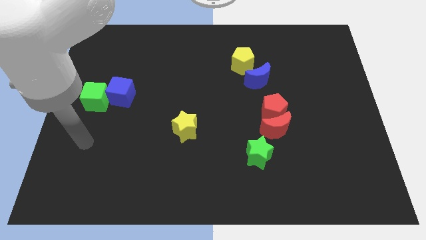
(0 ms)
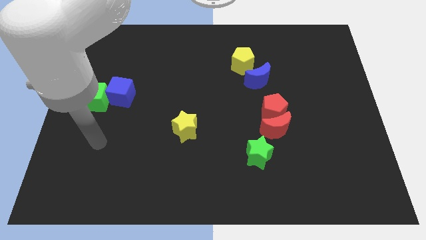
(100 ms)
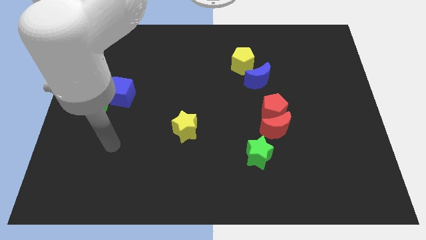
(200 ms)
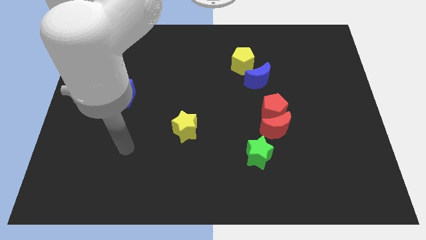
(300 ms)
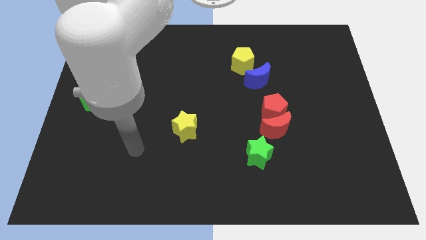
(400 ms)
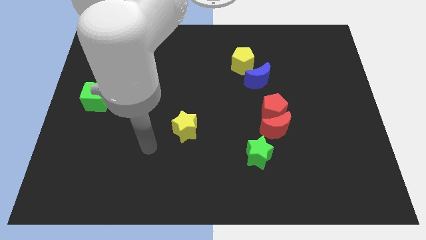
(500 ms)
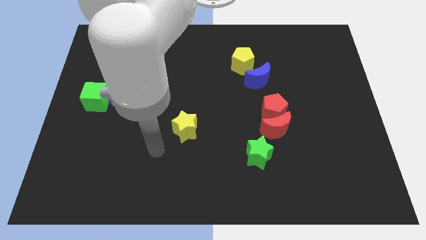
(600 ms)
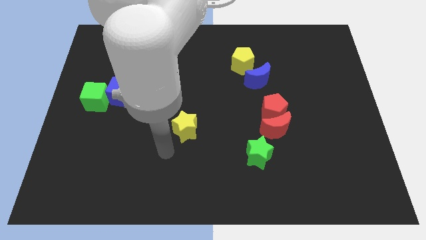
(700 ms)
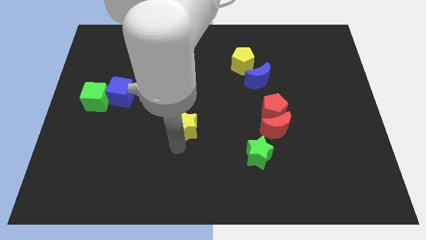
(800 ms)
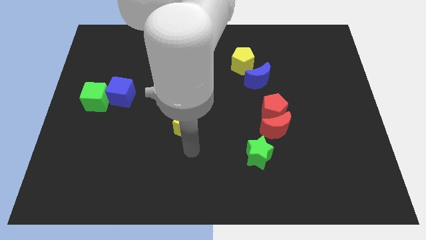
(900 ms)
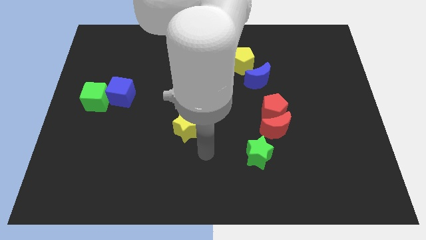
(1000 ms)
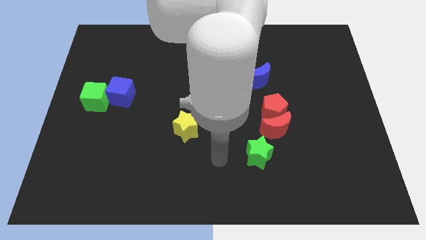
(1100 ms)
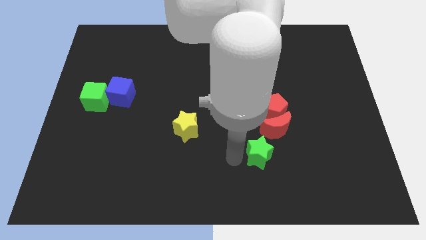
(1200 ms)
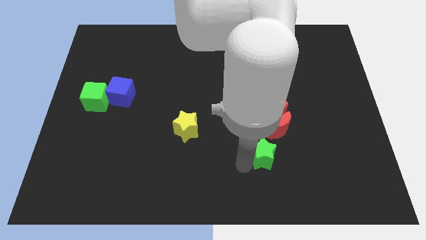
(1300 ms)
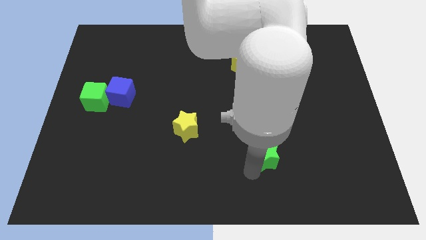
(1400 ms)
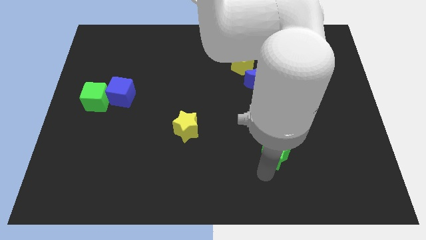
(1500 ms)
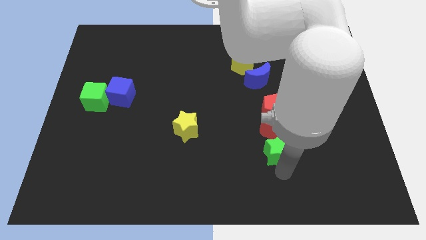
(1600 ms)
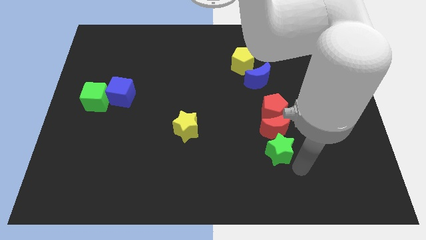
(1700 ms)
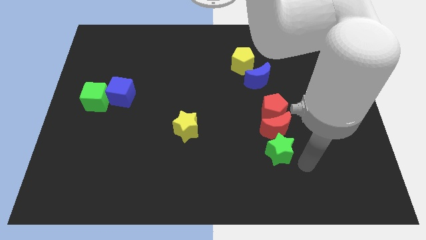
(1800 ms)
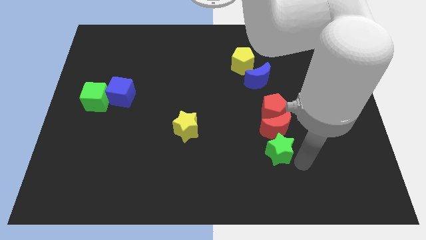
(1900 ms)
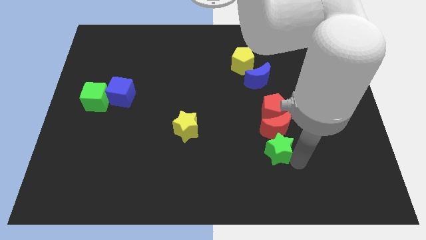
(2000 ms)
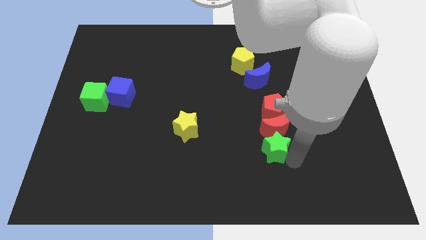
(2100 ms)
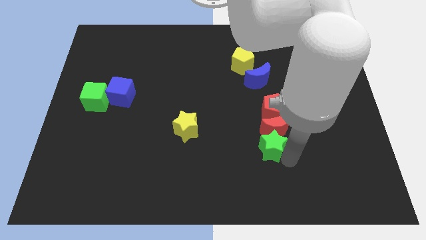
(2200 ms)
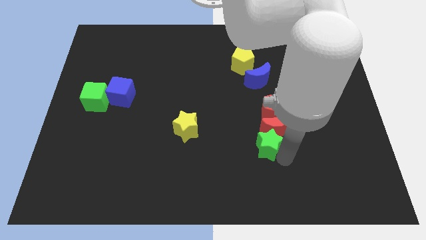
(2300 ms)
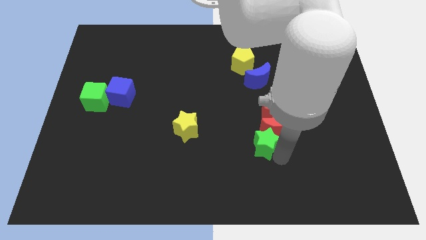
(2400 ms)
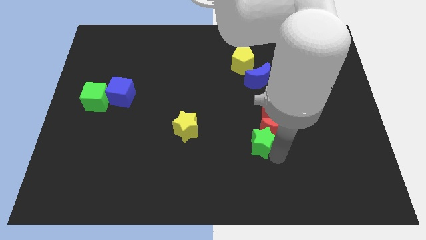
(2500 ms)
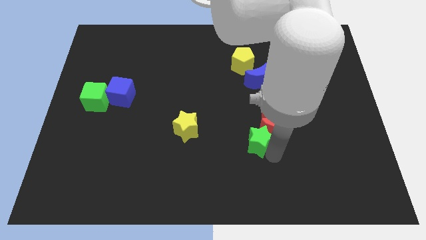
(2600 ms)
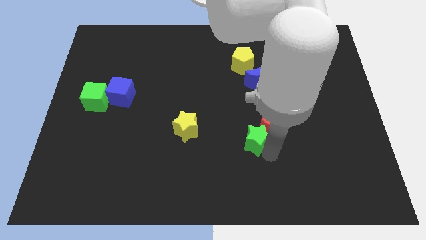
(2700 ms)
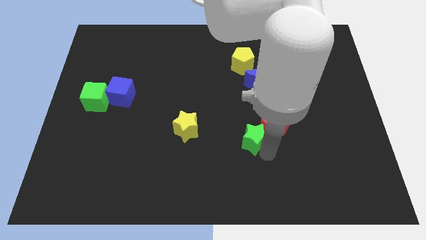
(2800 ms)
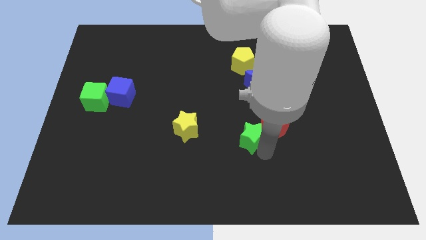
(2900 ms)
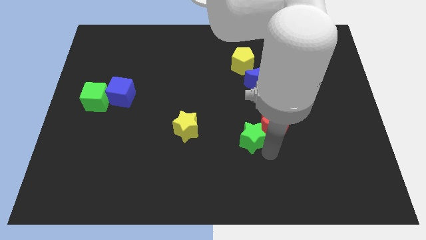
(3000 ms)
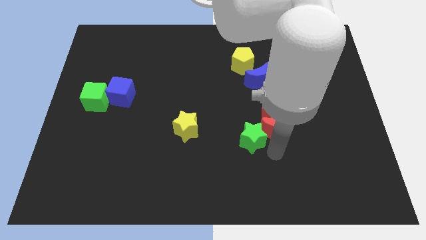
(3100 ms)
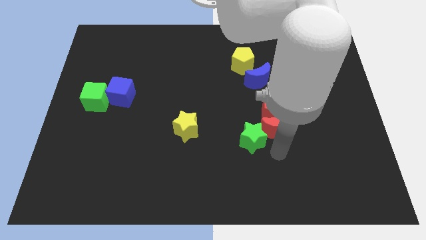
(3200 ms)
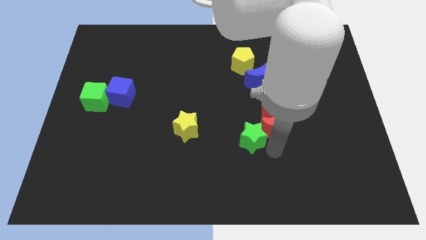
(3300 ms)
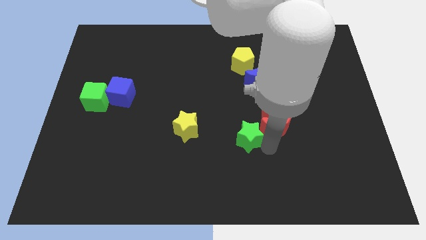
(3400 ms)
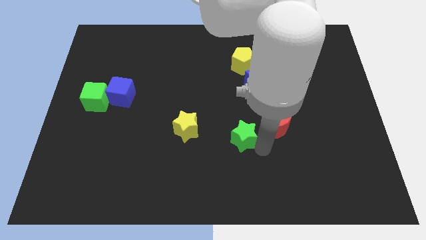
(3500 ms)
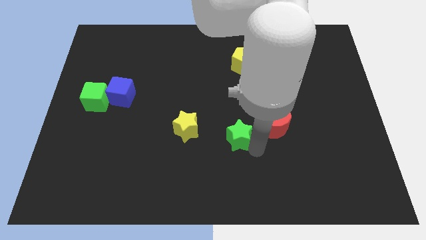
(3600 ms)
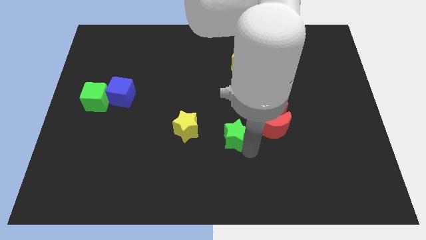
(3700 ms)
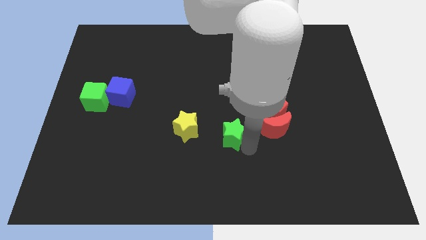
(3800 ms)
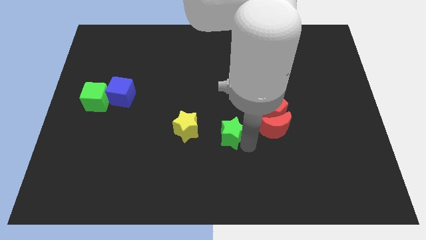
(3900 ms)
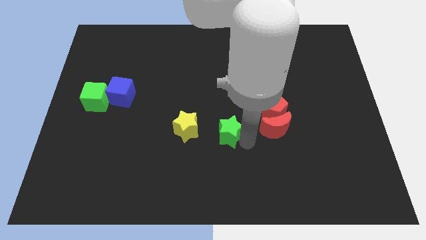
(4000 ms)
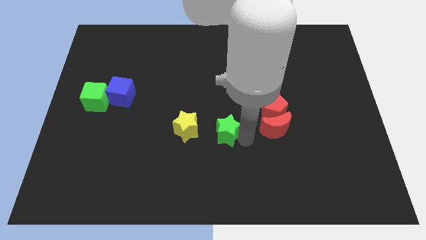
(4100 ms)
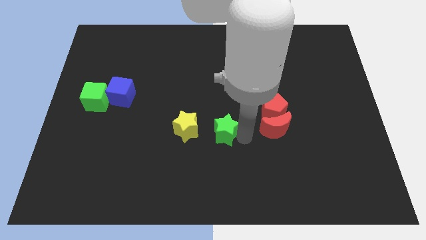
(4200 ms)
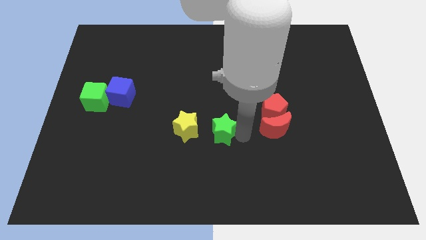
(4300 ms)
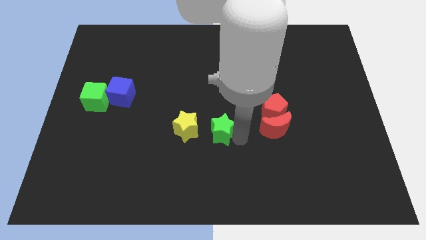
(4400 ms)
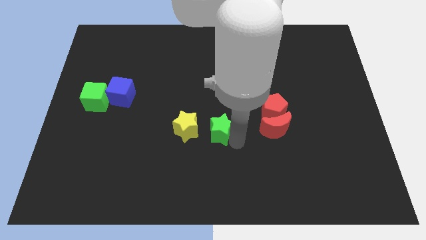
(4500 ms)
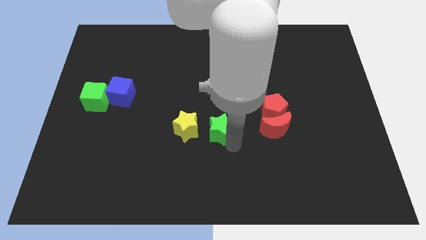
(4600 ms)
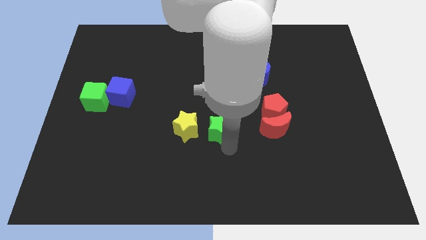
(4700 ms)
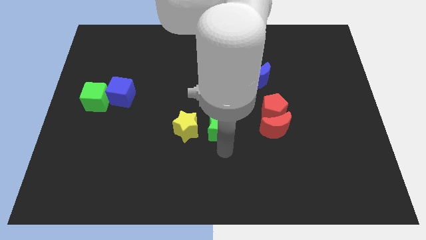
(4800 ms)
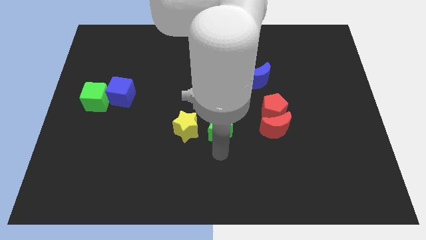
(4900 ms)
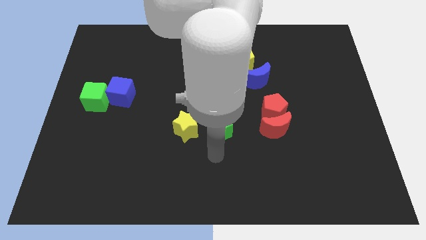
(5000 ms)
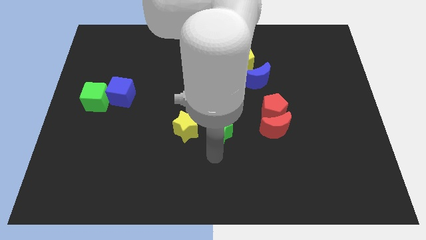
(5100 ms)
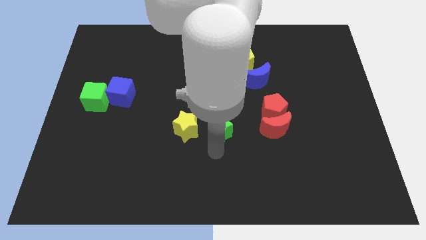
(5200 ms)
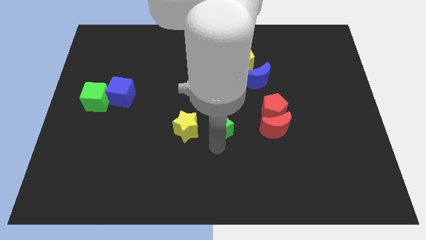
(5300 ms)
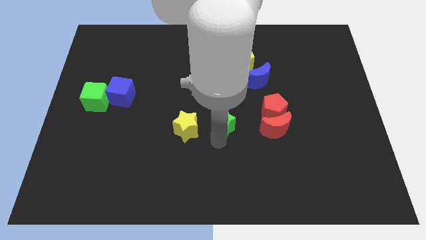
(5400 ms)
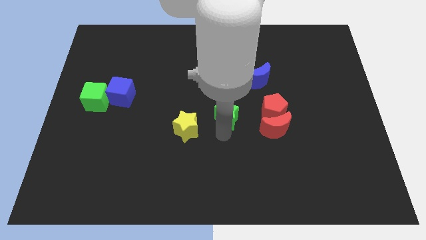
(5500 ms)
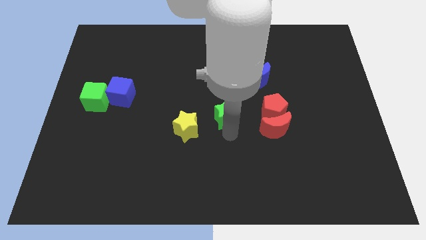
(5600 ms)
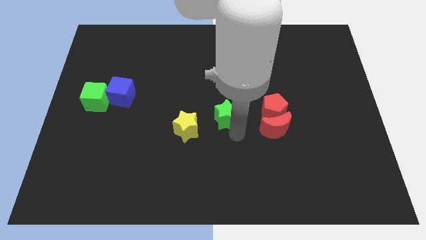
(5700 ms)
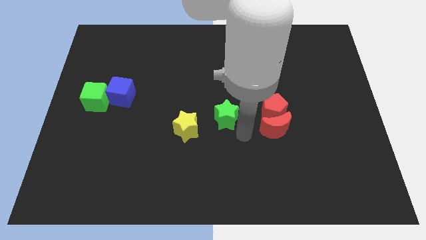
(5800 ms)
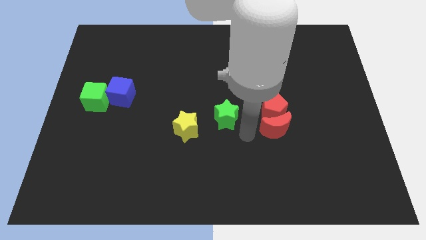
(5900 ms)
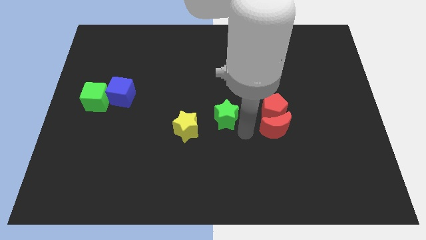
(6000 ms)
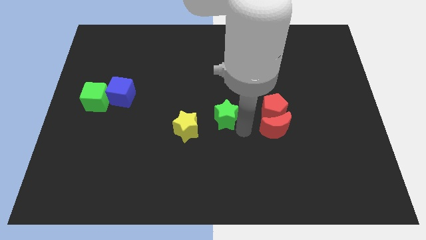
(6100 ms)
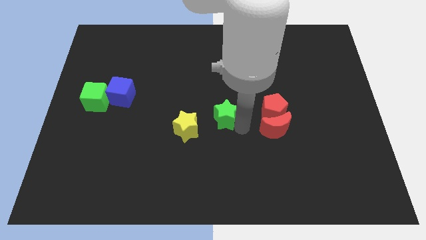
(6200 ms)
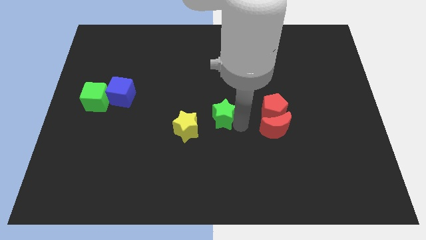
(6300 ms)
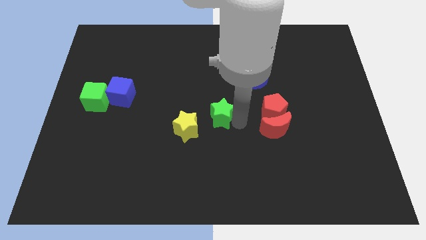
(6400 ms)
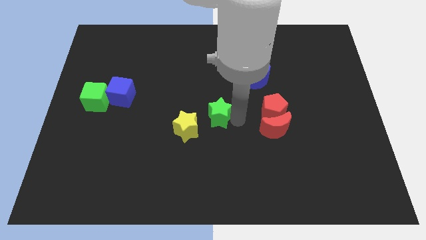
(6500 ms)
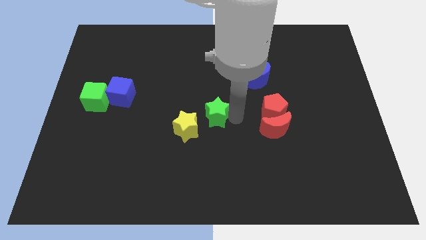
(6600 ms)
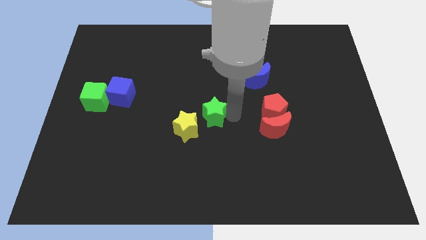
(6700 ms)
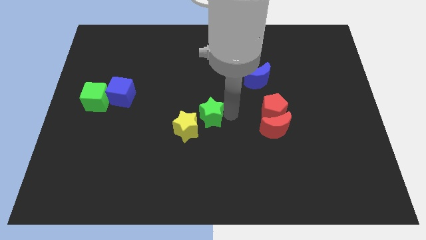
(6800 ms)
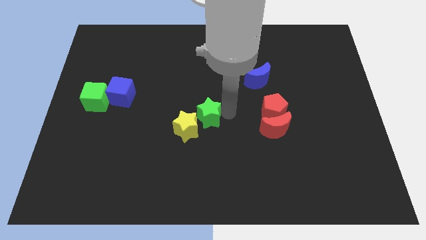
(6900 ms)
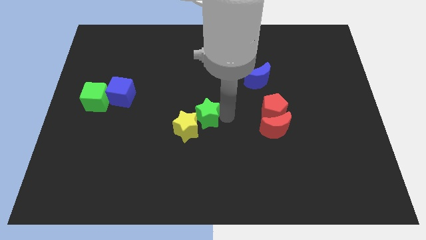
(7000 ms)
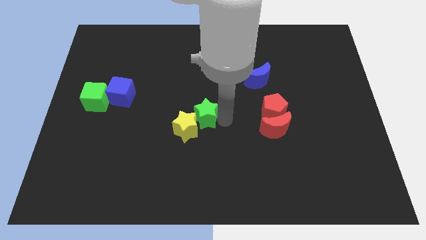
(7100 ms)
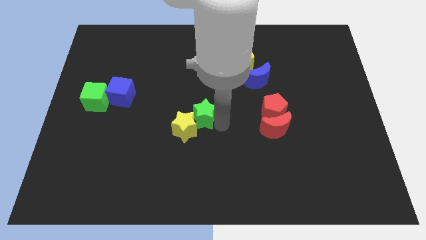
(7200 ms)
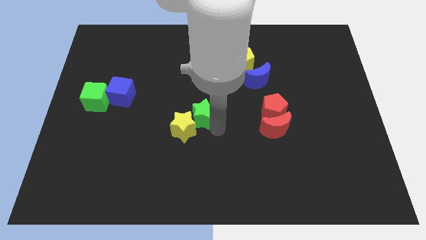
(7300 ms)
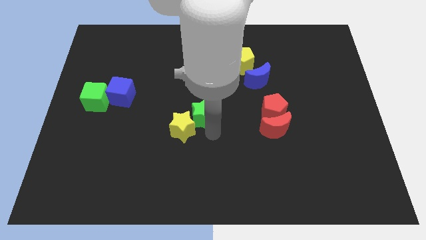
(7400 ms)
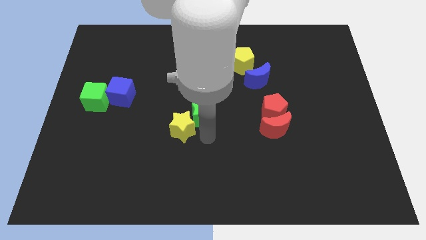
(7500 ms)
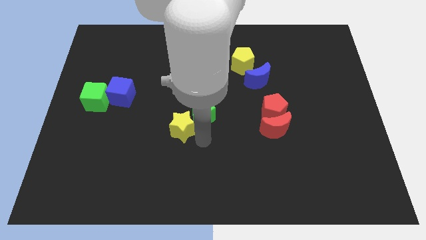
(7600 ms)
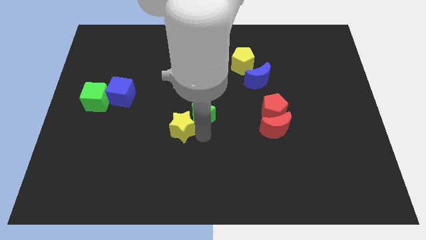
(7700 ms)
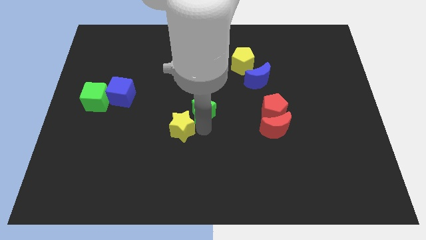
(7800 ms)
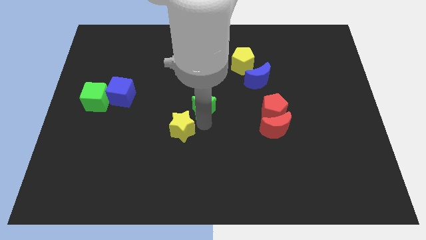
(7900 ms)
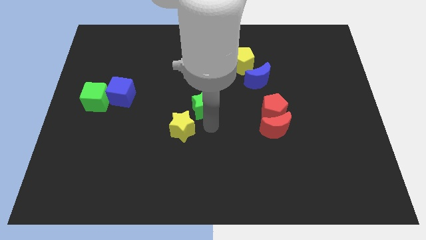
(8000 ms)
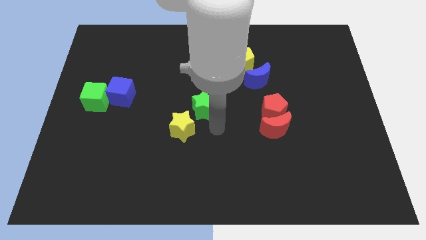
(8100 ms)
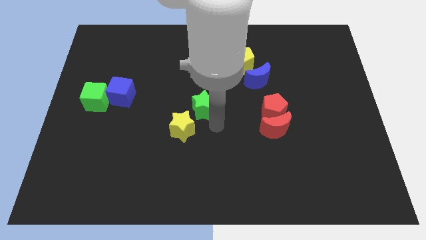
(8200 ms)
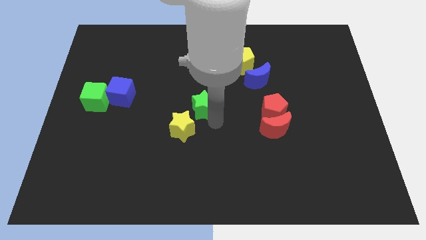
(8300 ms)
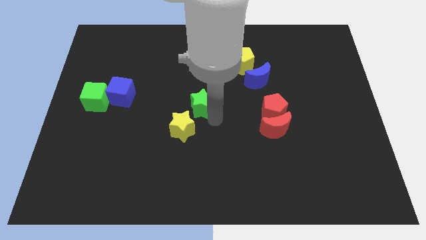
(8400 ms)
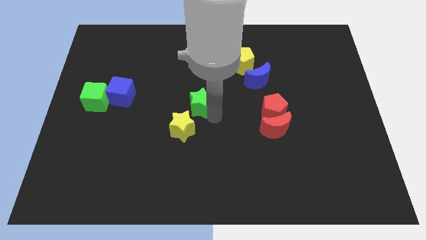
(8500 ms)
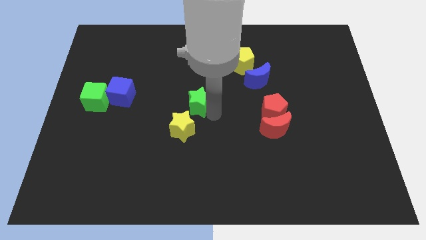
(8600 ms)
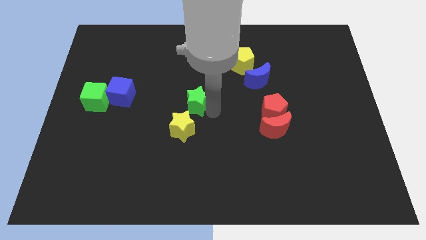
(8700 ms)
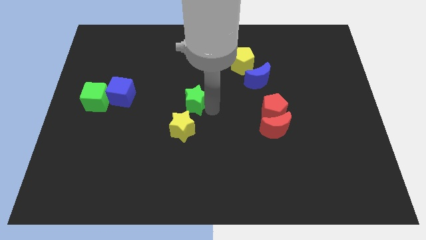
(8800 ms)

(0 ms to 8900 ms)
slide the green star upwards and to the left diagonally
